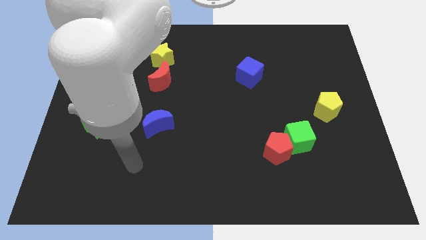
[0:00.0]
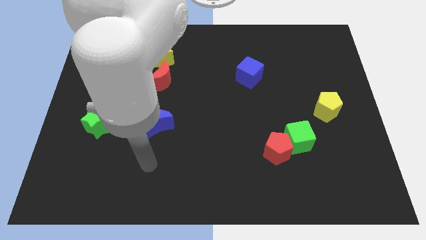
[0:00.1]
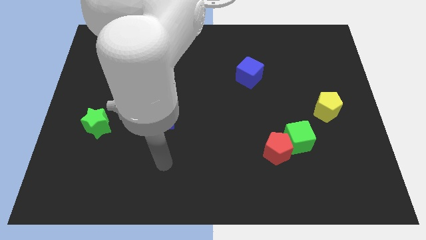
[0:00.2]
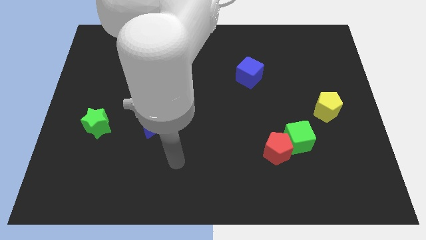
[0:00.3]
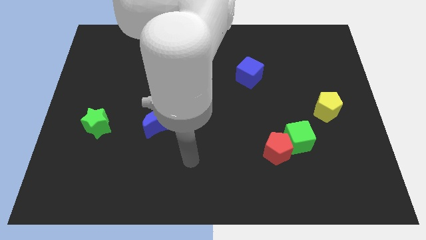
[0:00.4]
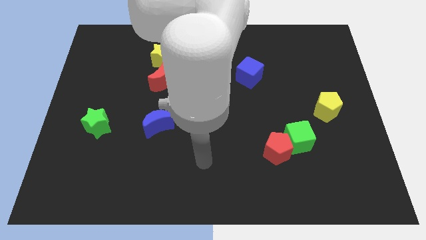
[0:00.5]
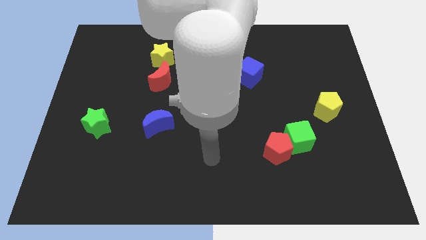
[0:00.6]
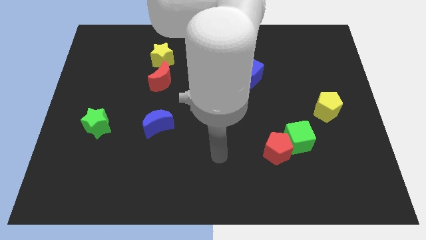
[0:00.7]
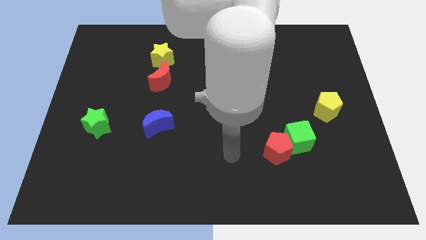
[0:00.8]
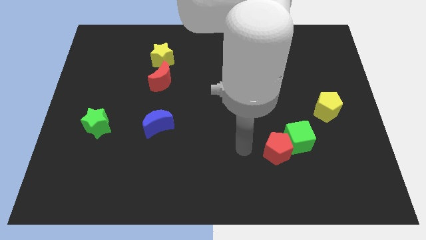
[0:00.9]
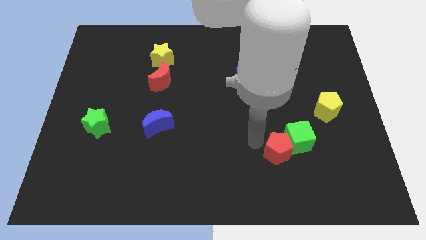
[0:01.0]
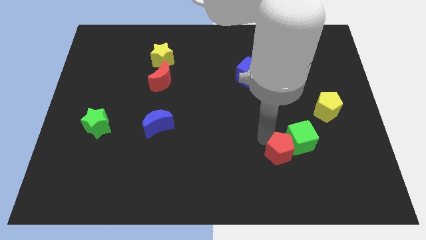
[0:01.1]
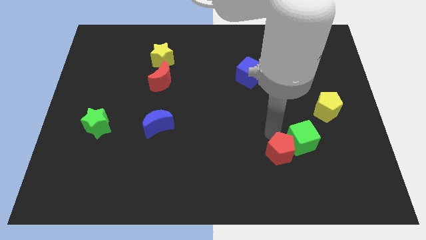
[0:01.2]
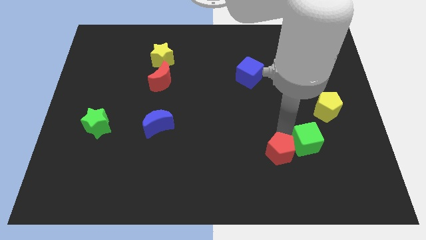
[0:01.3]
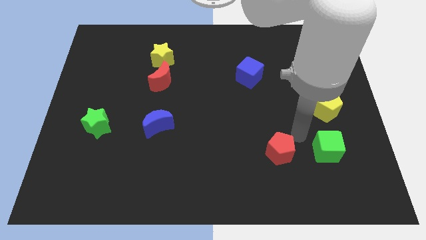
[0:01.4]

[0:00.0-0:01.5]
move the red pentagon away from the green cube

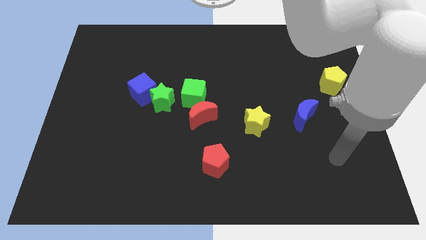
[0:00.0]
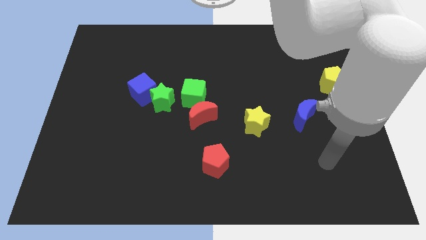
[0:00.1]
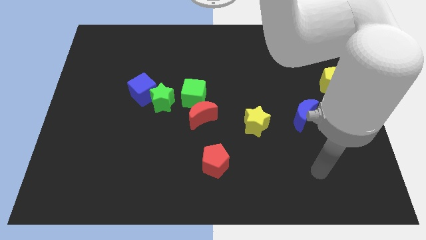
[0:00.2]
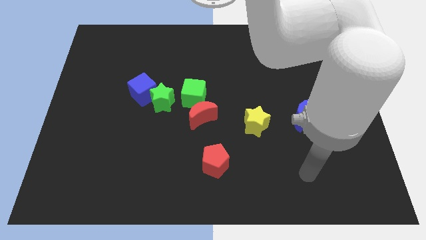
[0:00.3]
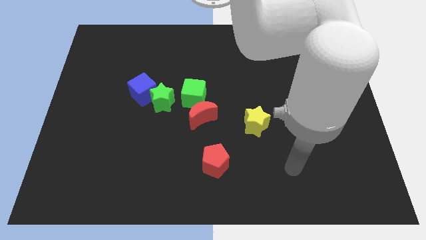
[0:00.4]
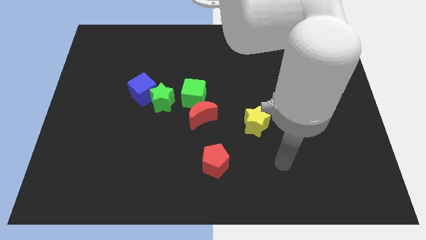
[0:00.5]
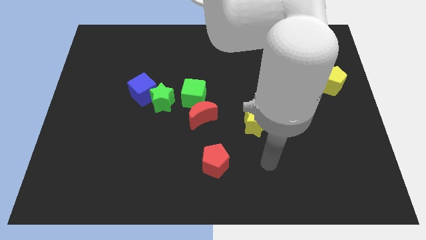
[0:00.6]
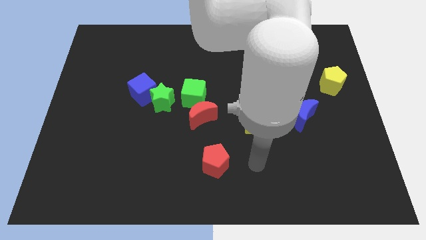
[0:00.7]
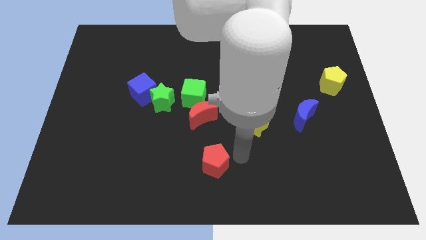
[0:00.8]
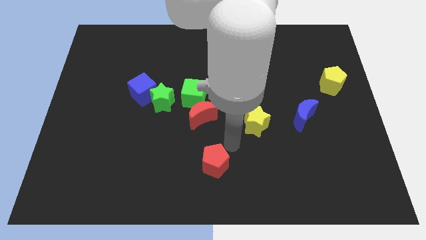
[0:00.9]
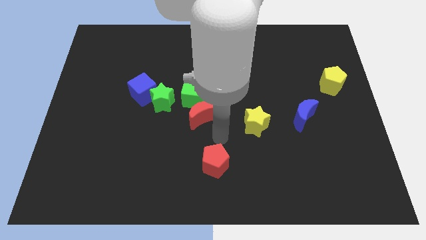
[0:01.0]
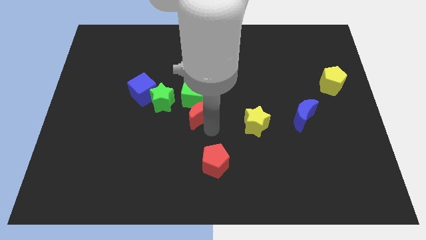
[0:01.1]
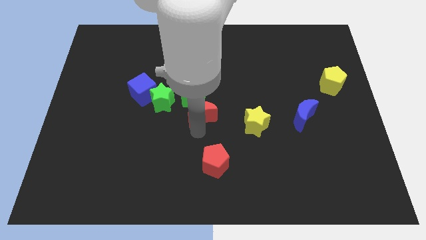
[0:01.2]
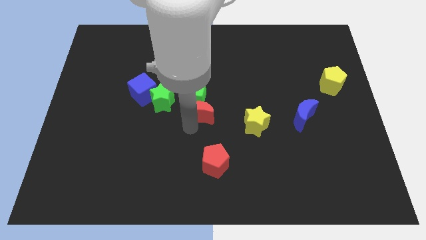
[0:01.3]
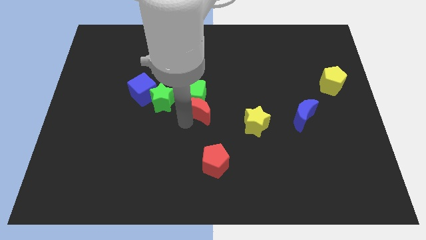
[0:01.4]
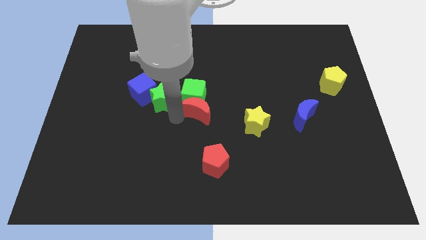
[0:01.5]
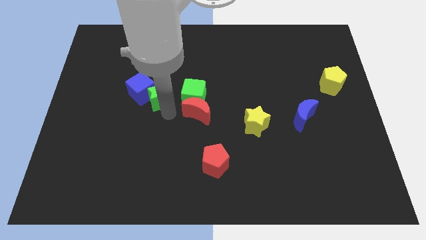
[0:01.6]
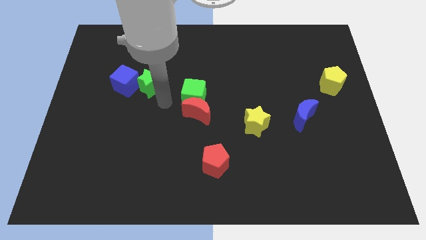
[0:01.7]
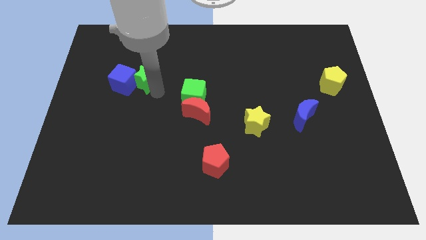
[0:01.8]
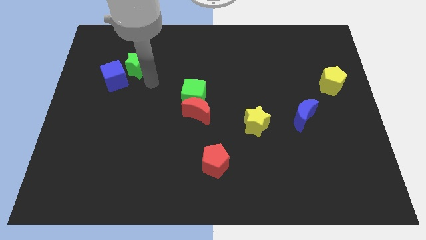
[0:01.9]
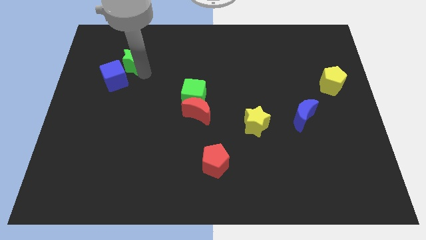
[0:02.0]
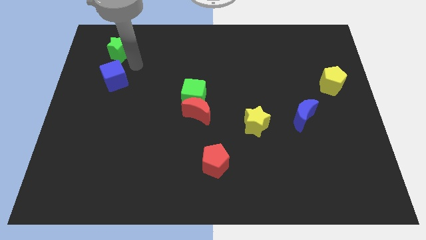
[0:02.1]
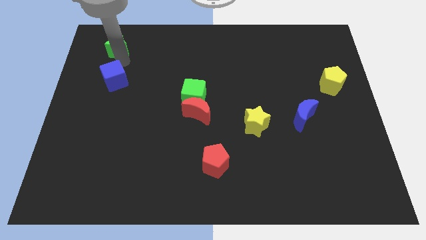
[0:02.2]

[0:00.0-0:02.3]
separate the blue cube from the green star

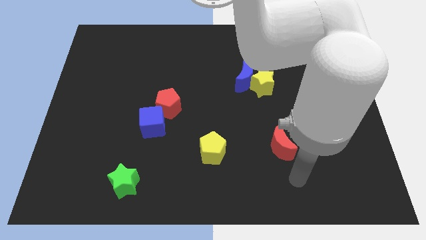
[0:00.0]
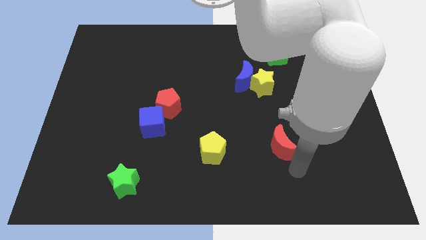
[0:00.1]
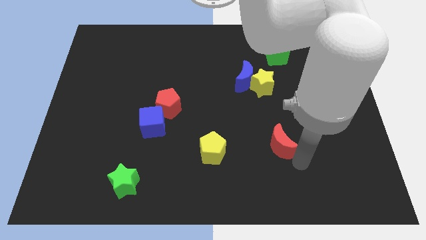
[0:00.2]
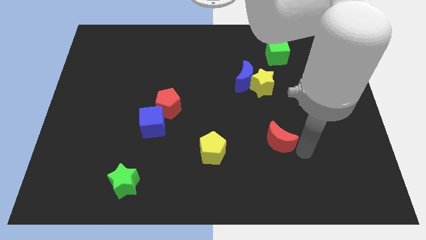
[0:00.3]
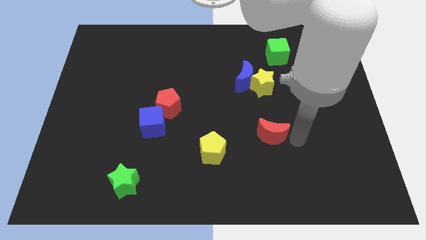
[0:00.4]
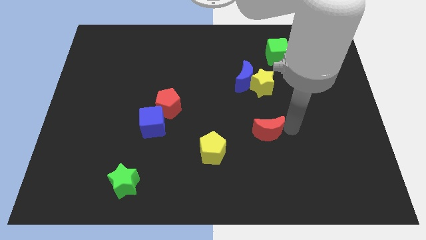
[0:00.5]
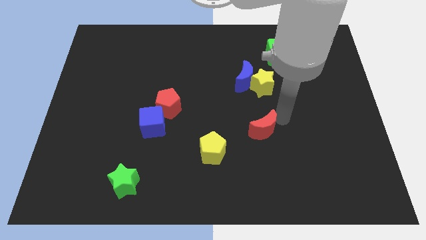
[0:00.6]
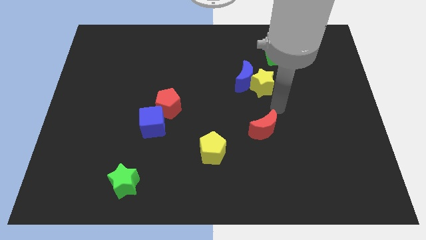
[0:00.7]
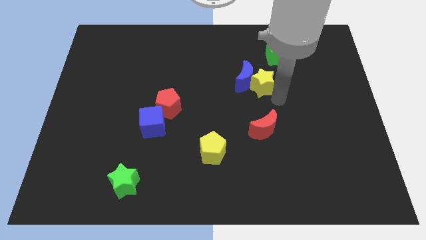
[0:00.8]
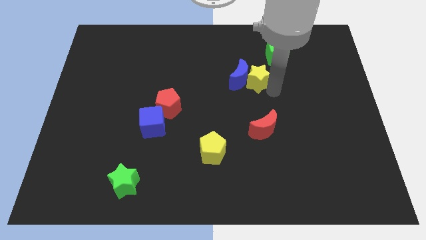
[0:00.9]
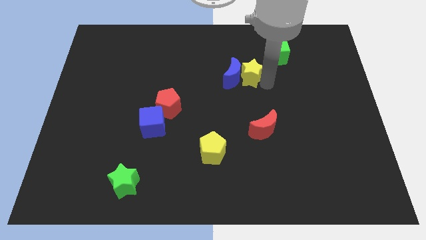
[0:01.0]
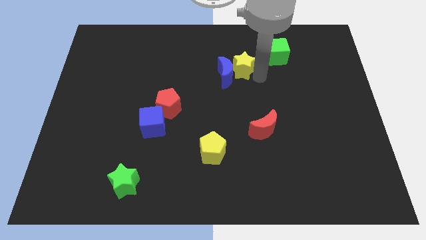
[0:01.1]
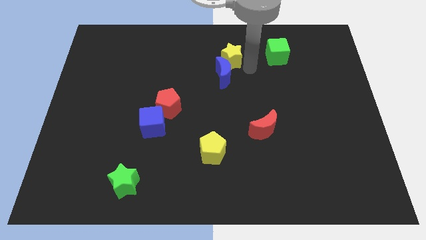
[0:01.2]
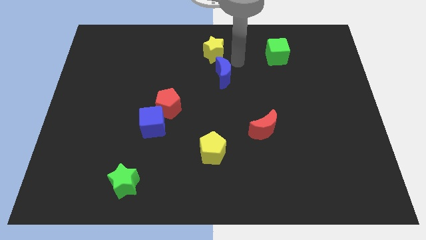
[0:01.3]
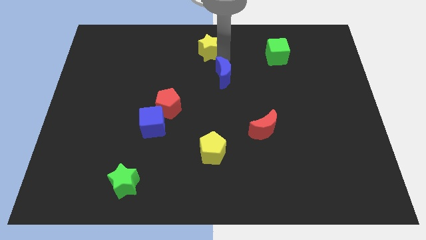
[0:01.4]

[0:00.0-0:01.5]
separate the blue moon from the yellow star

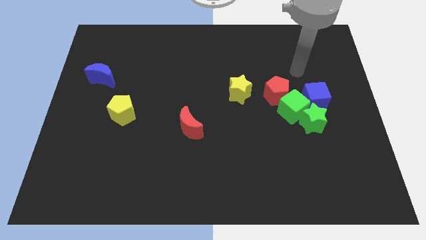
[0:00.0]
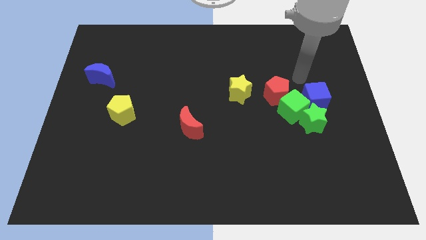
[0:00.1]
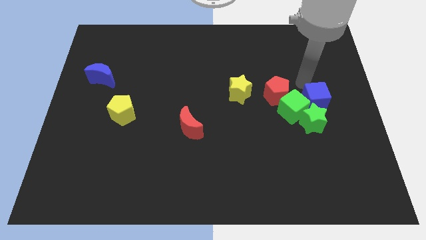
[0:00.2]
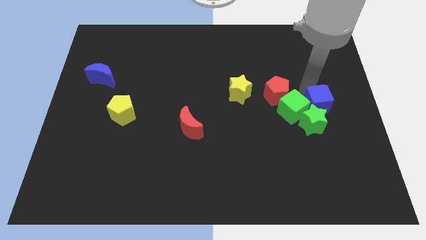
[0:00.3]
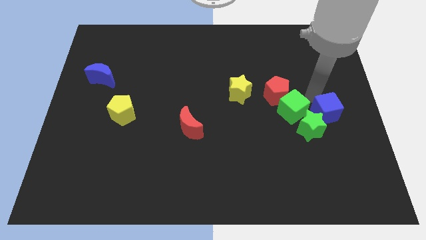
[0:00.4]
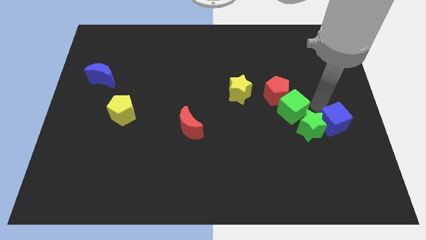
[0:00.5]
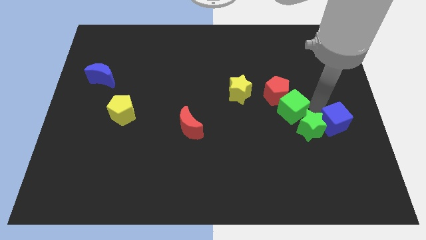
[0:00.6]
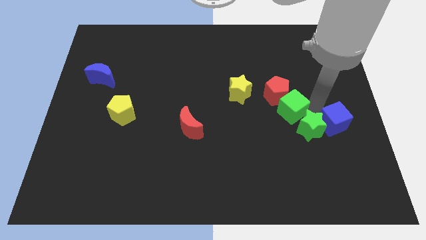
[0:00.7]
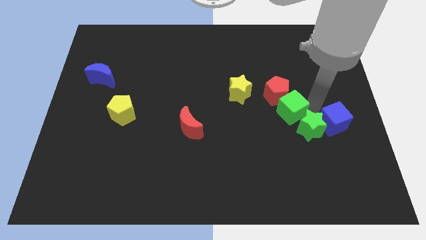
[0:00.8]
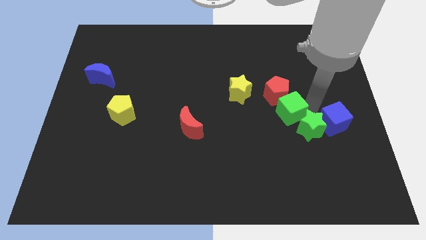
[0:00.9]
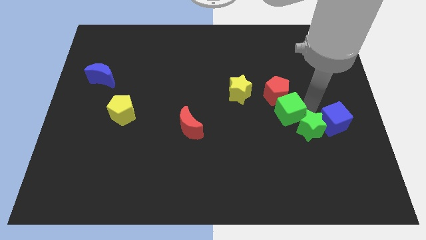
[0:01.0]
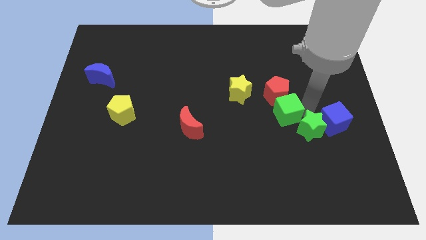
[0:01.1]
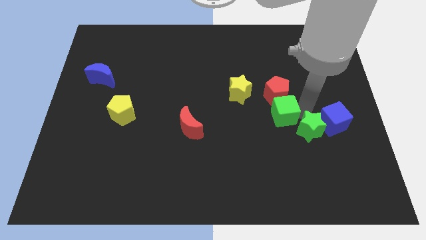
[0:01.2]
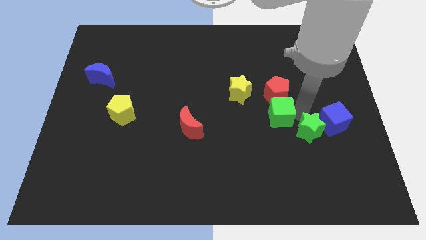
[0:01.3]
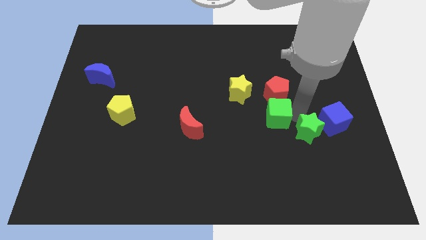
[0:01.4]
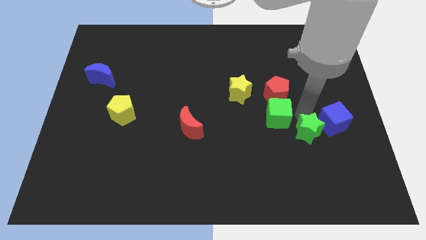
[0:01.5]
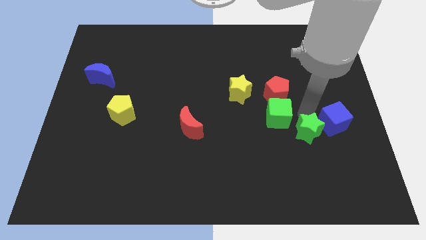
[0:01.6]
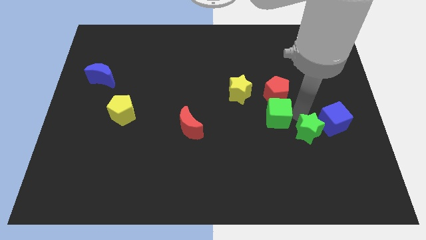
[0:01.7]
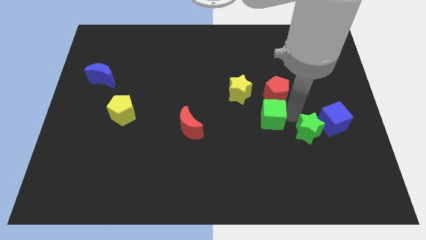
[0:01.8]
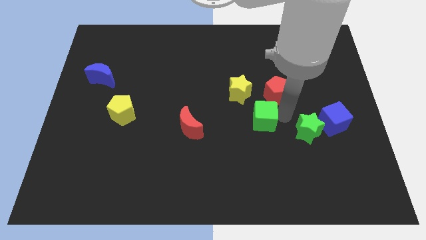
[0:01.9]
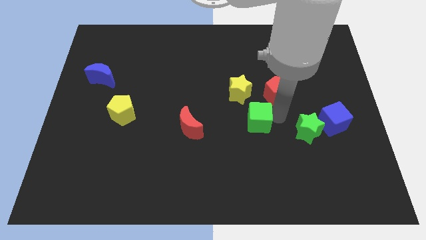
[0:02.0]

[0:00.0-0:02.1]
pull the green cube apart from the green star, red pentagon, and blue cube

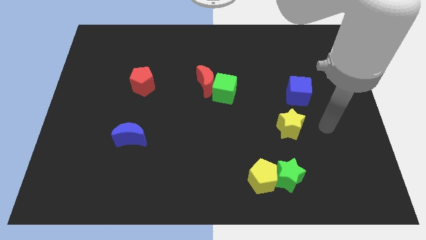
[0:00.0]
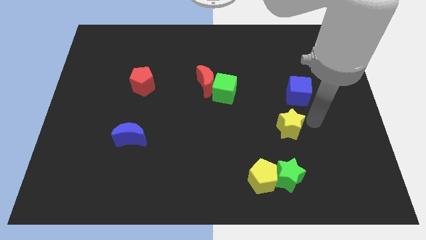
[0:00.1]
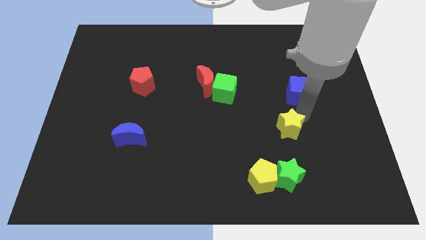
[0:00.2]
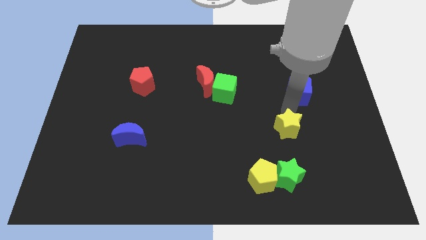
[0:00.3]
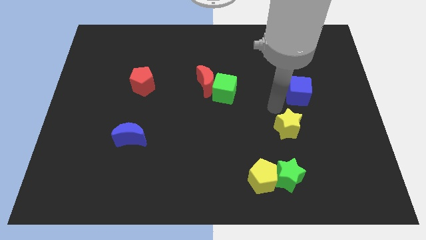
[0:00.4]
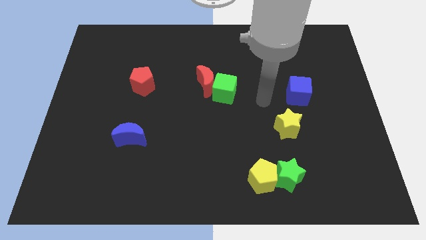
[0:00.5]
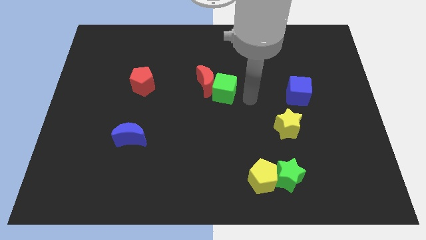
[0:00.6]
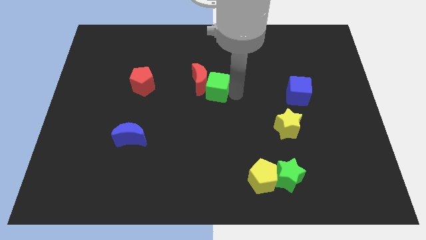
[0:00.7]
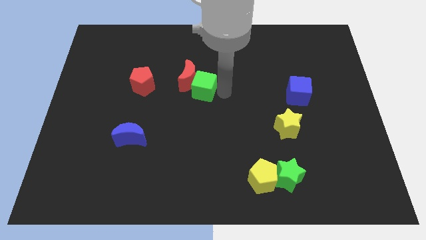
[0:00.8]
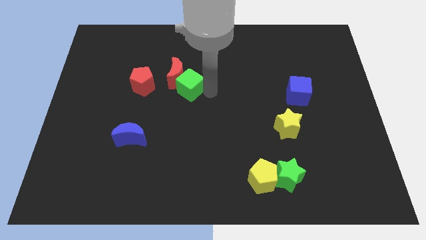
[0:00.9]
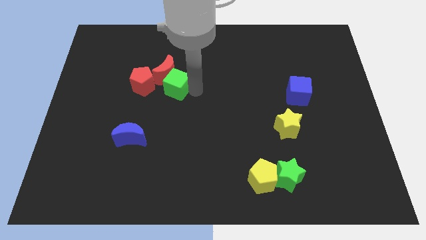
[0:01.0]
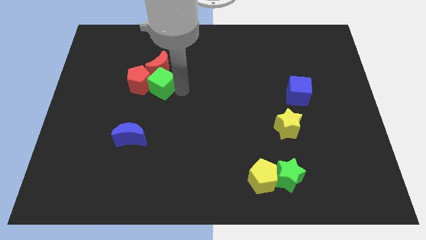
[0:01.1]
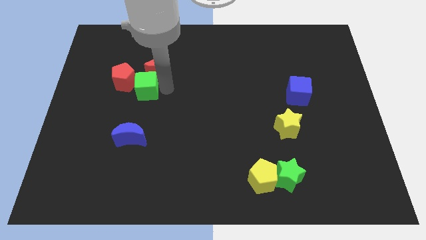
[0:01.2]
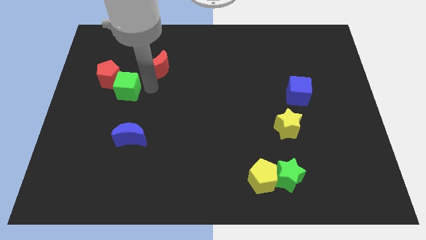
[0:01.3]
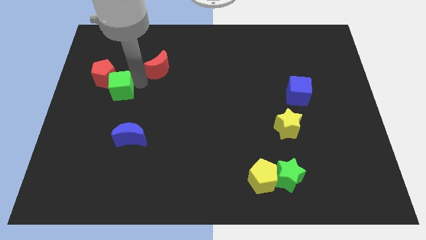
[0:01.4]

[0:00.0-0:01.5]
separate the red moon from the green cube

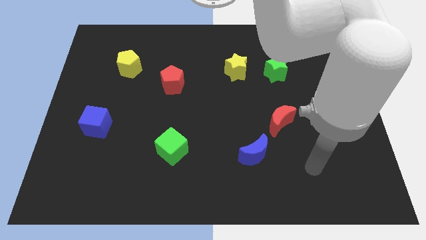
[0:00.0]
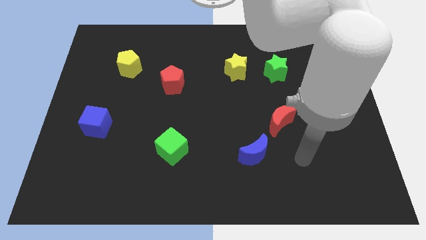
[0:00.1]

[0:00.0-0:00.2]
separate the green star from the yellow star

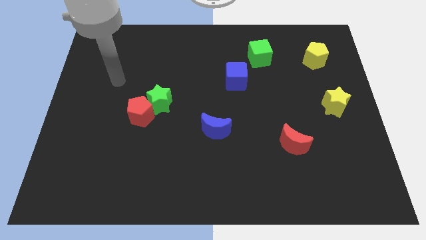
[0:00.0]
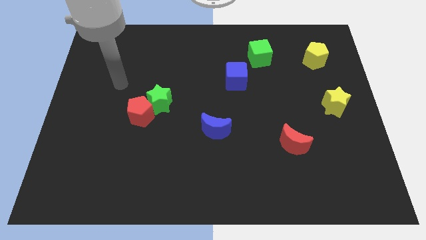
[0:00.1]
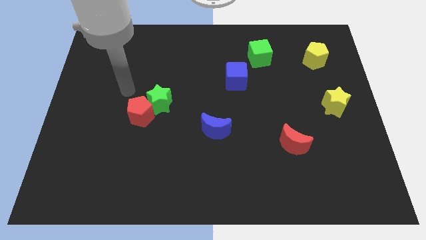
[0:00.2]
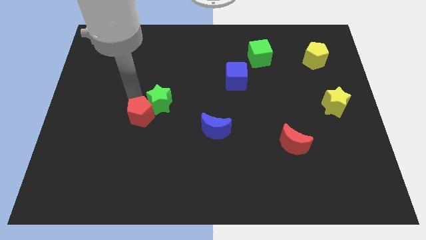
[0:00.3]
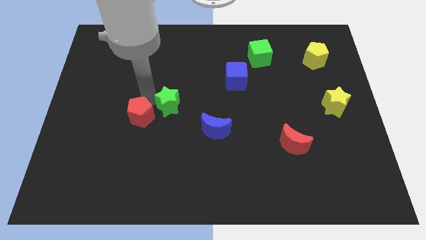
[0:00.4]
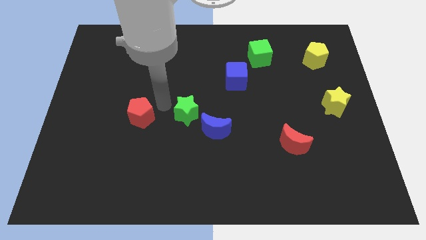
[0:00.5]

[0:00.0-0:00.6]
move the red pentagon away from the green star
